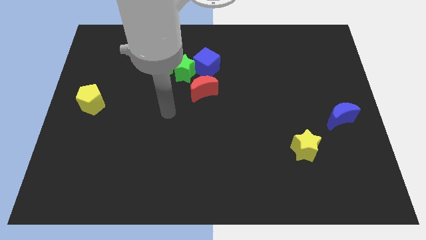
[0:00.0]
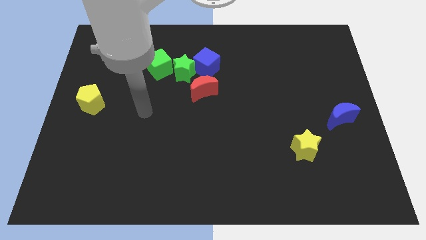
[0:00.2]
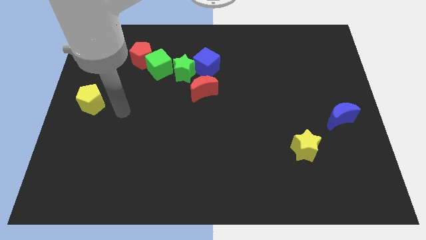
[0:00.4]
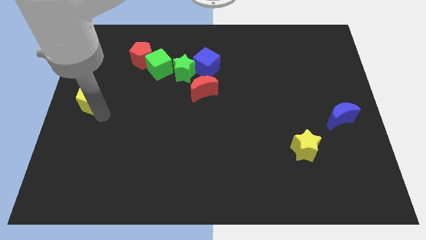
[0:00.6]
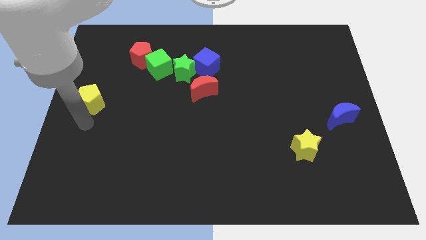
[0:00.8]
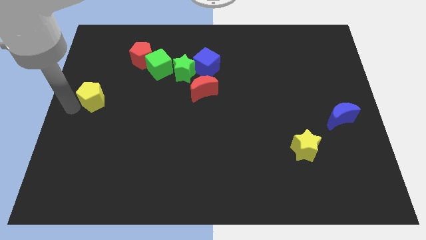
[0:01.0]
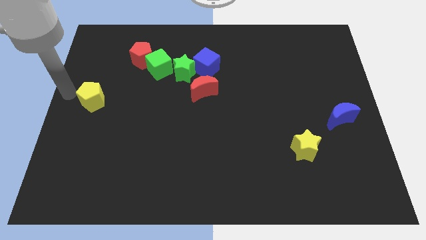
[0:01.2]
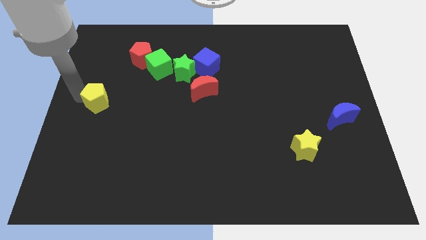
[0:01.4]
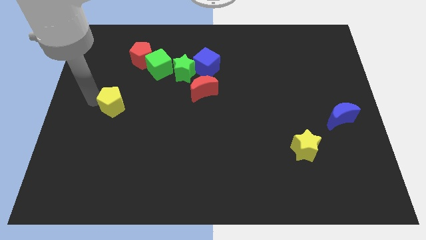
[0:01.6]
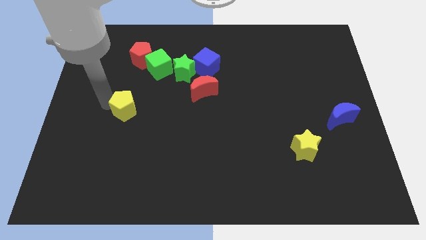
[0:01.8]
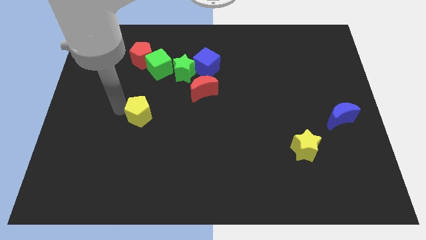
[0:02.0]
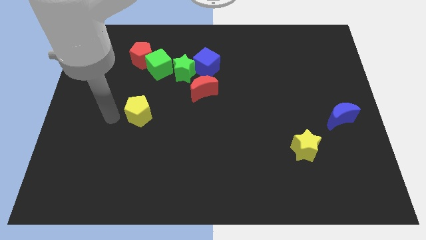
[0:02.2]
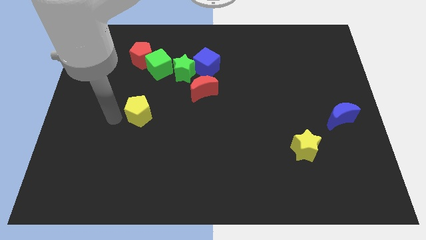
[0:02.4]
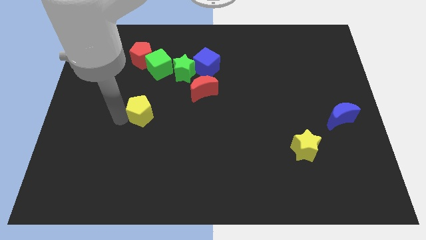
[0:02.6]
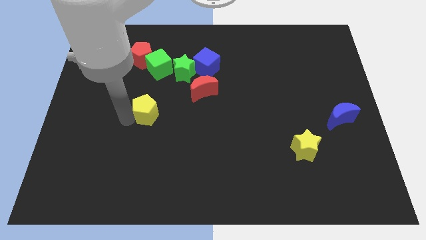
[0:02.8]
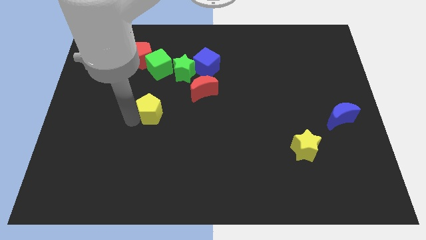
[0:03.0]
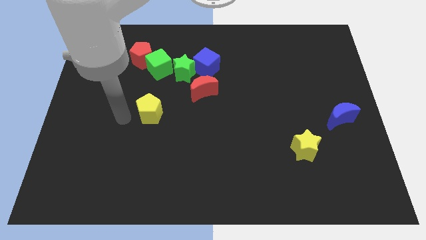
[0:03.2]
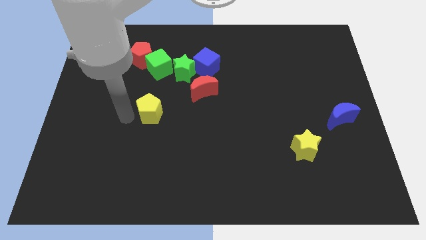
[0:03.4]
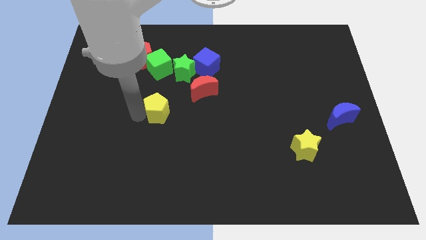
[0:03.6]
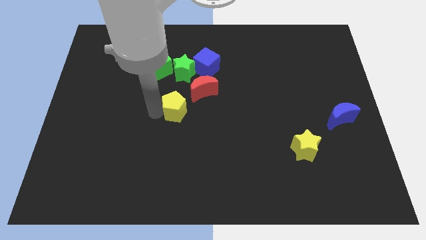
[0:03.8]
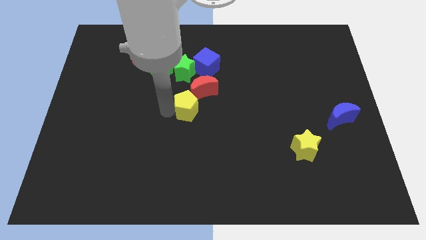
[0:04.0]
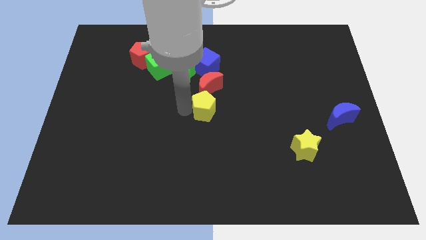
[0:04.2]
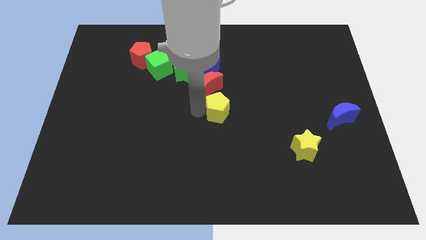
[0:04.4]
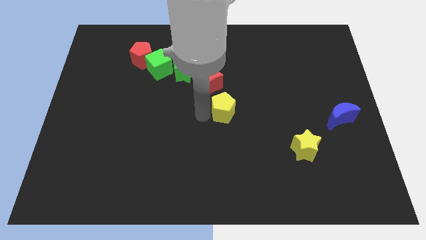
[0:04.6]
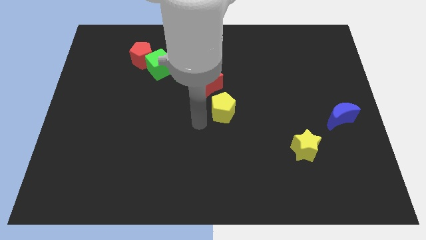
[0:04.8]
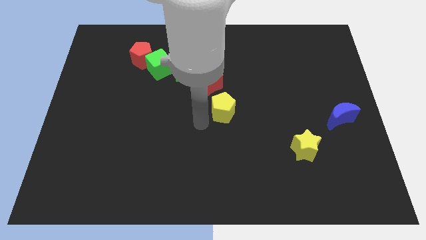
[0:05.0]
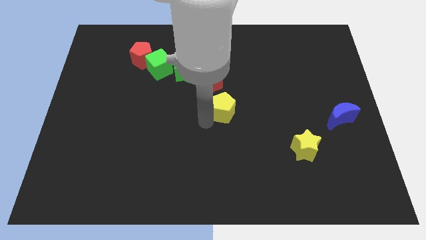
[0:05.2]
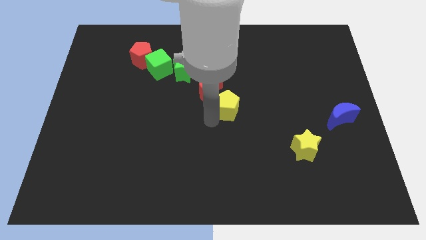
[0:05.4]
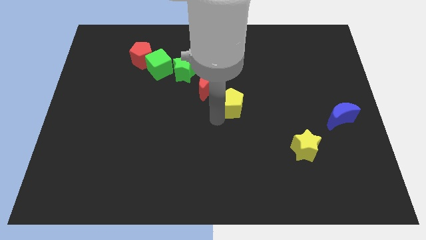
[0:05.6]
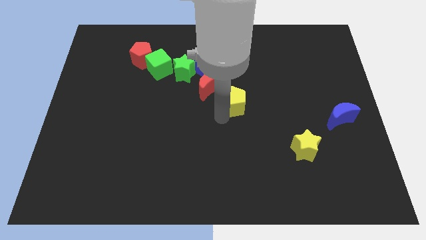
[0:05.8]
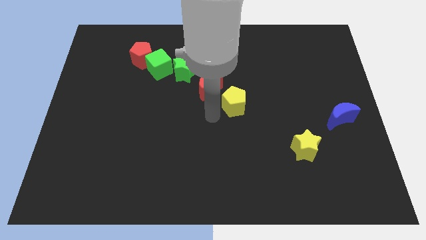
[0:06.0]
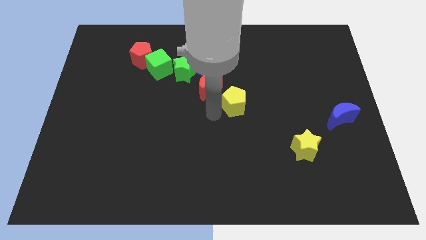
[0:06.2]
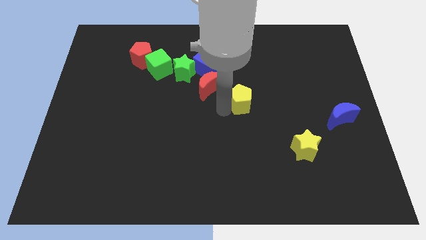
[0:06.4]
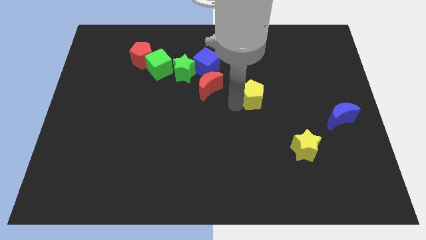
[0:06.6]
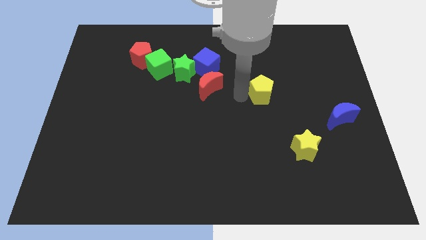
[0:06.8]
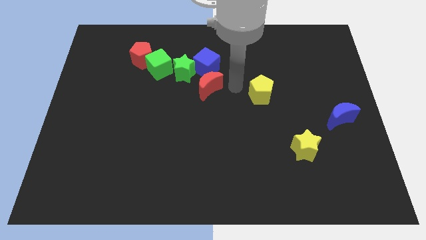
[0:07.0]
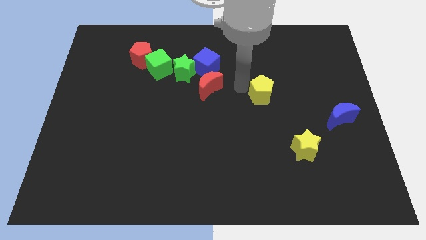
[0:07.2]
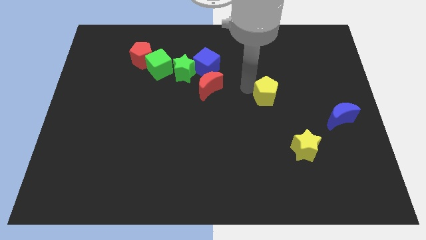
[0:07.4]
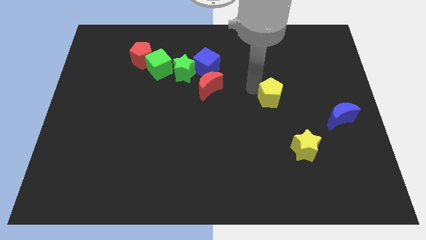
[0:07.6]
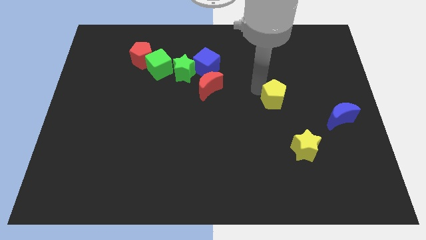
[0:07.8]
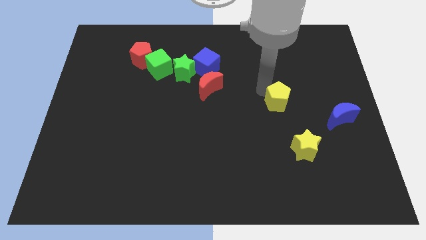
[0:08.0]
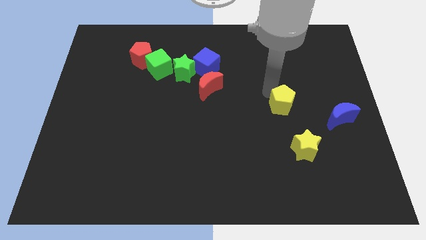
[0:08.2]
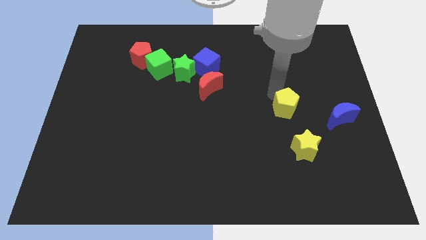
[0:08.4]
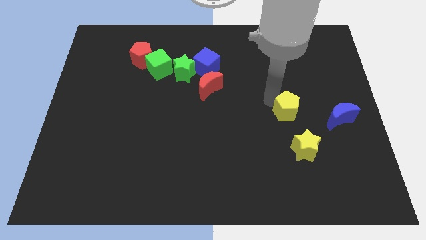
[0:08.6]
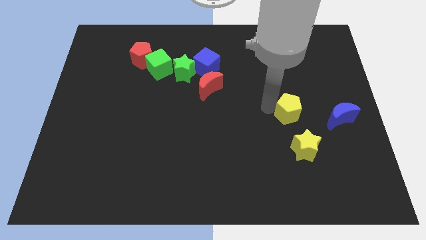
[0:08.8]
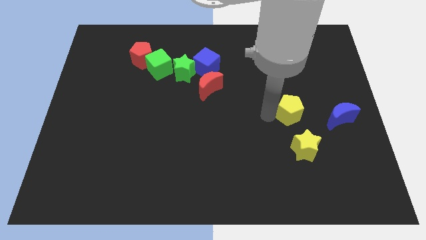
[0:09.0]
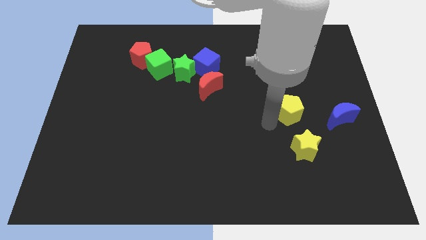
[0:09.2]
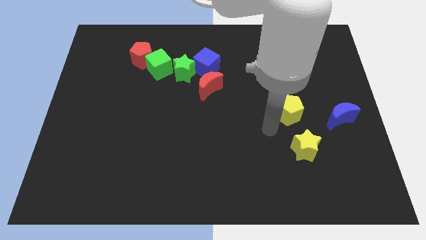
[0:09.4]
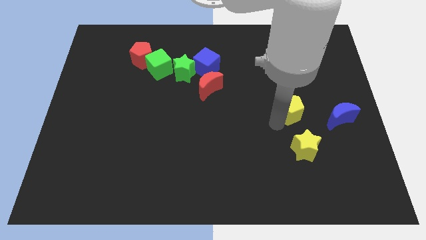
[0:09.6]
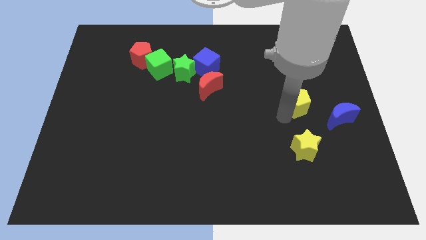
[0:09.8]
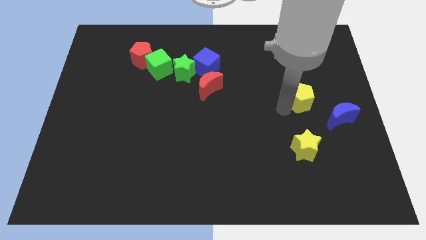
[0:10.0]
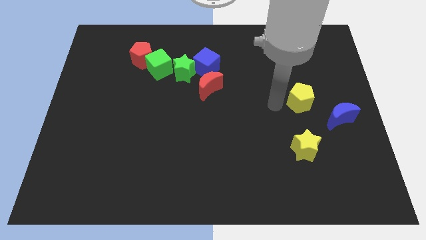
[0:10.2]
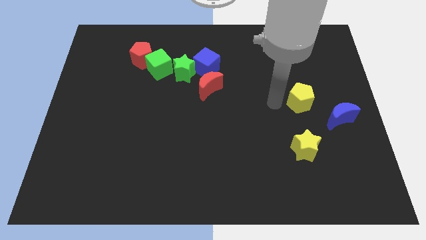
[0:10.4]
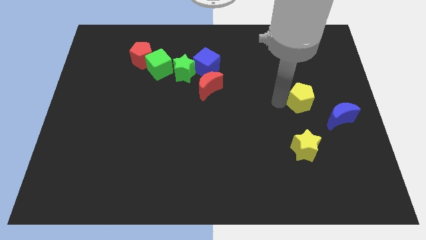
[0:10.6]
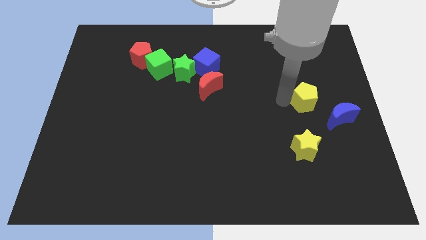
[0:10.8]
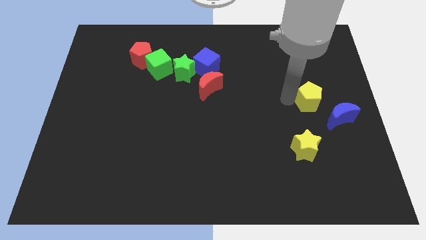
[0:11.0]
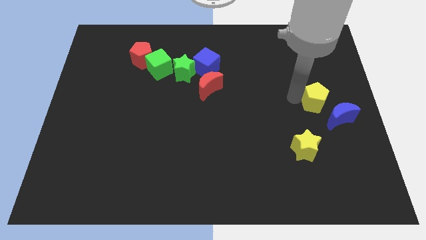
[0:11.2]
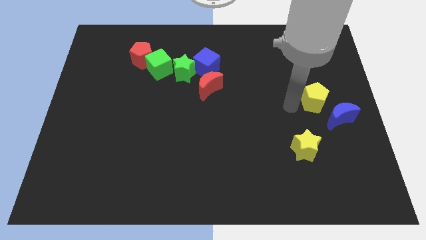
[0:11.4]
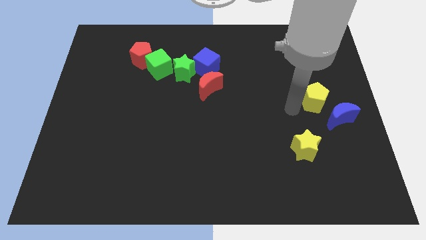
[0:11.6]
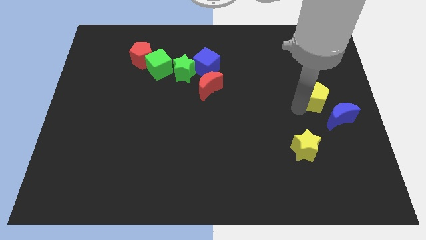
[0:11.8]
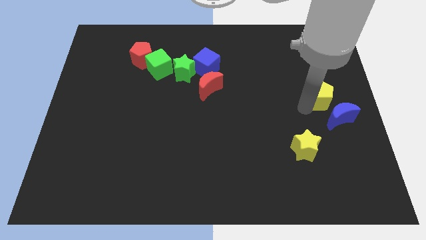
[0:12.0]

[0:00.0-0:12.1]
push the yellow pentagon to the right side of the board
